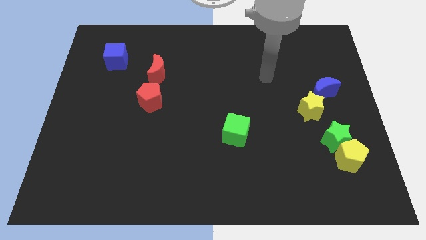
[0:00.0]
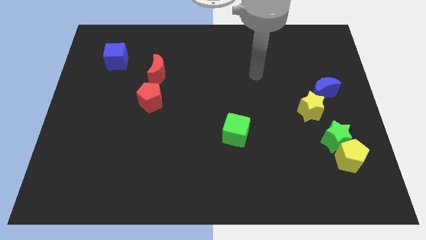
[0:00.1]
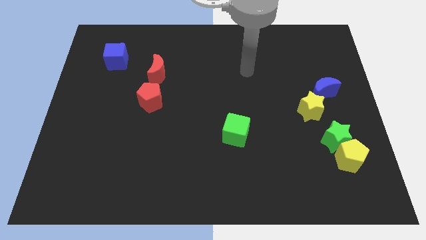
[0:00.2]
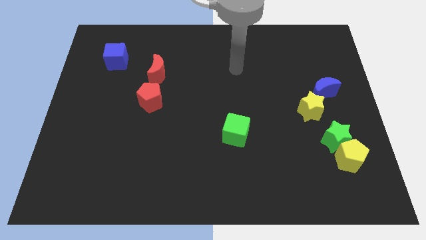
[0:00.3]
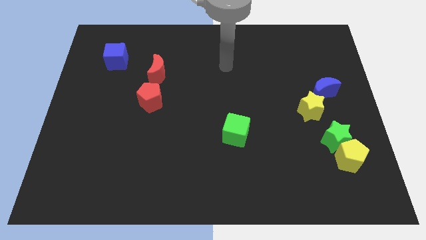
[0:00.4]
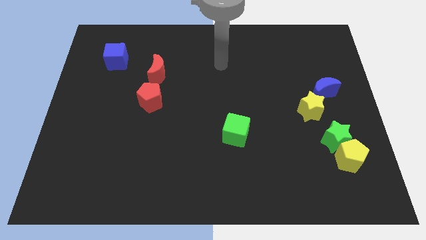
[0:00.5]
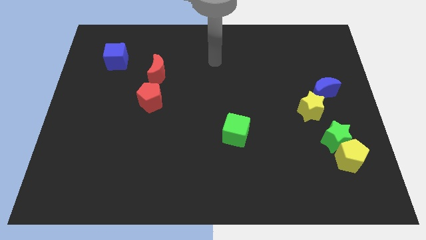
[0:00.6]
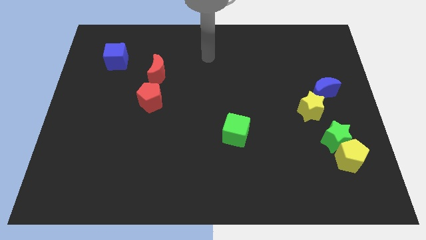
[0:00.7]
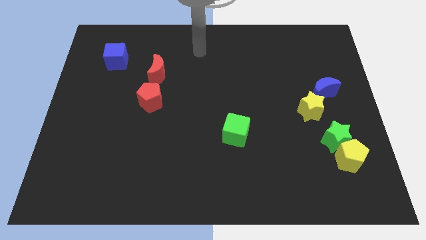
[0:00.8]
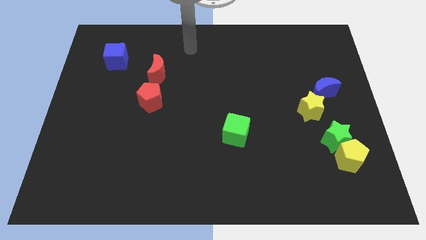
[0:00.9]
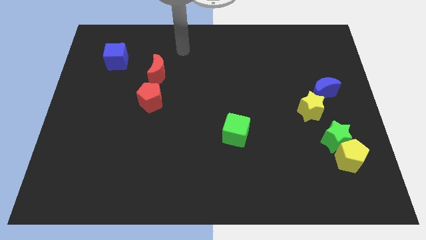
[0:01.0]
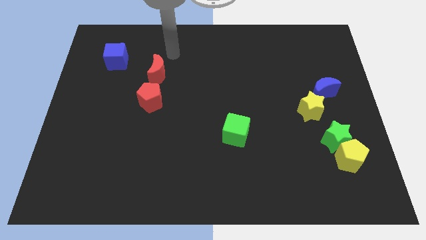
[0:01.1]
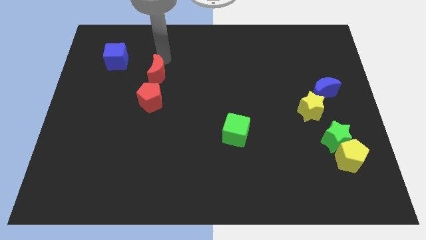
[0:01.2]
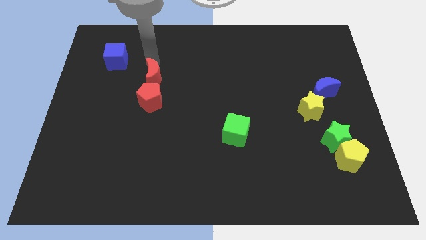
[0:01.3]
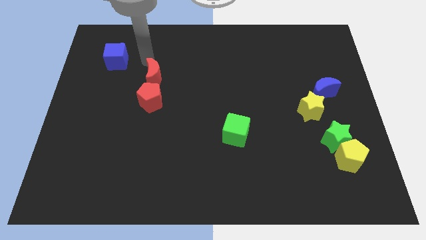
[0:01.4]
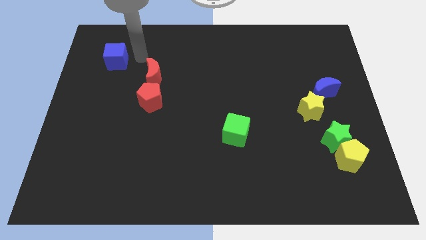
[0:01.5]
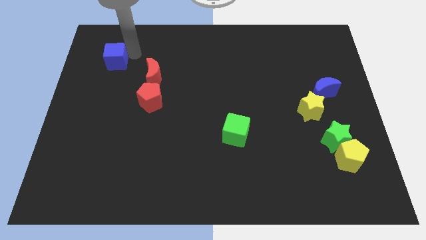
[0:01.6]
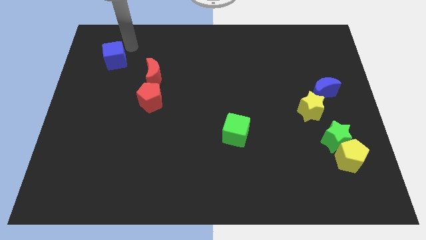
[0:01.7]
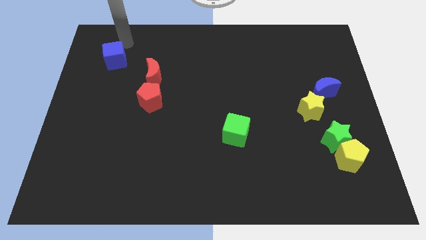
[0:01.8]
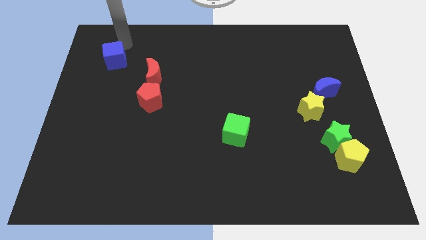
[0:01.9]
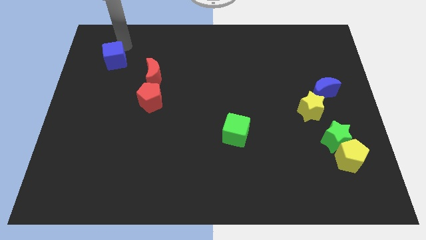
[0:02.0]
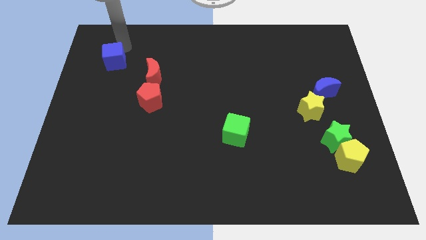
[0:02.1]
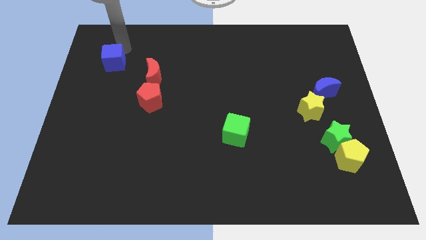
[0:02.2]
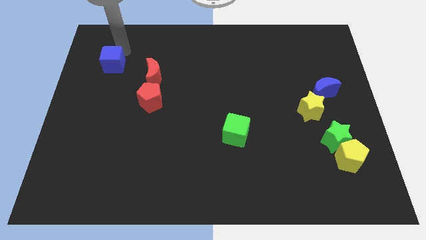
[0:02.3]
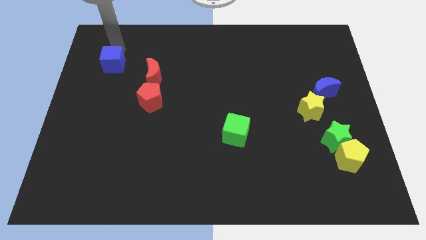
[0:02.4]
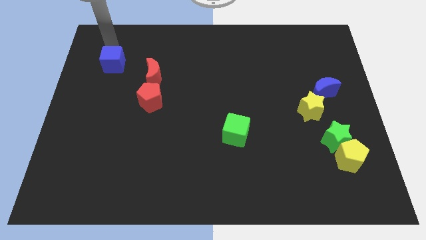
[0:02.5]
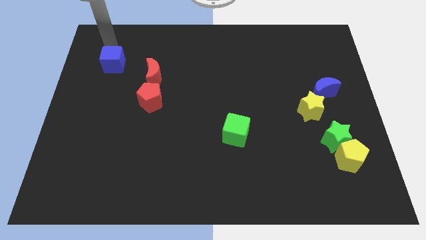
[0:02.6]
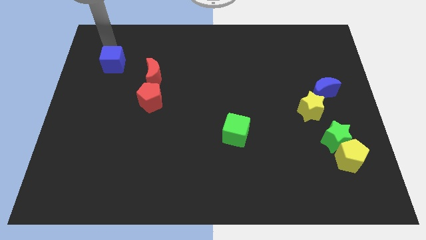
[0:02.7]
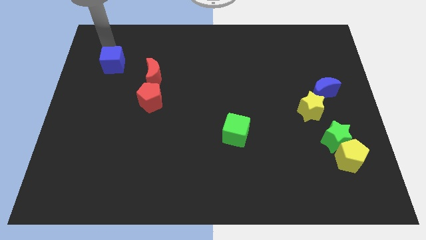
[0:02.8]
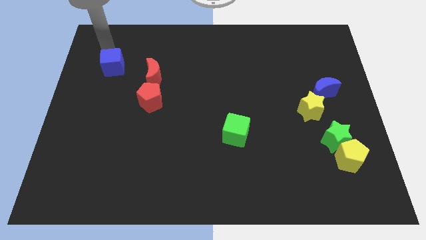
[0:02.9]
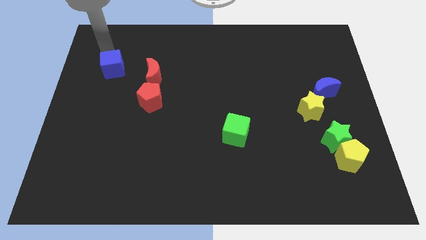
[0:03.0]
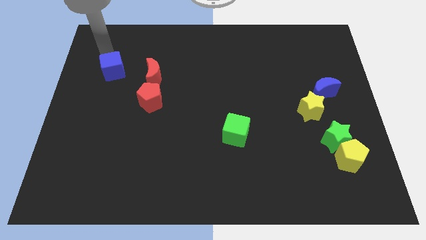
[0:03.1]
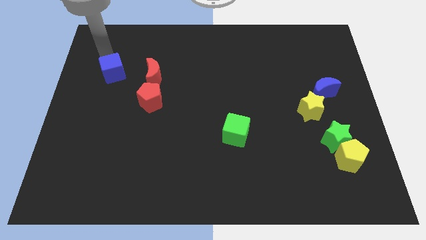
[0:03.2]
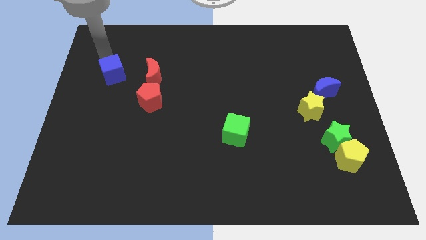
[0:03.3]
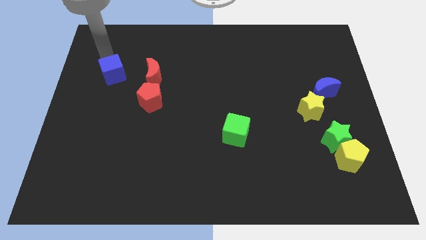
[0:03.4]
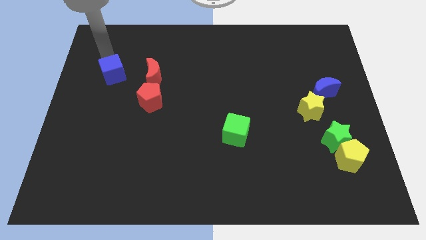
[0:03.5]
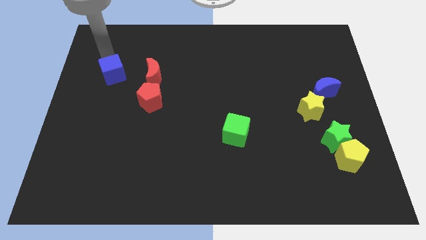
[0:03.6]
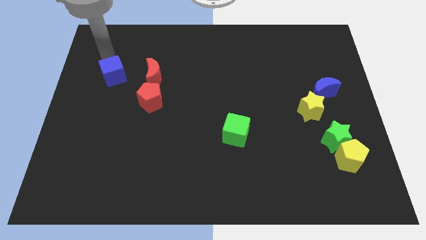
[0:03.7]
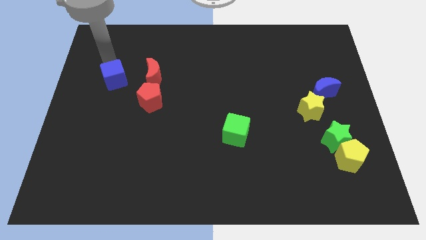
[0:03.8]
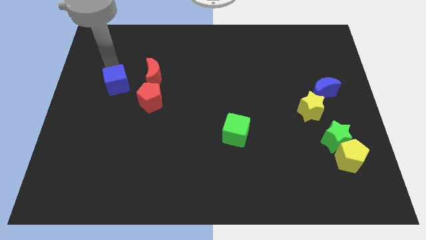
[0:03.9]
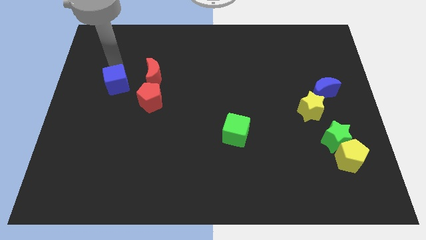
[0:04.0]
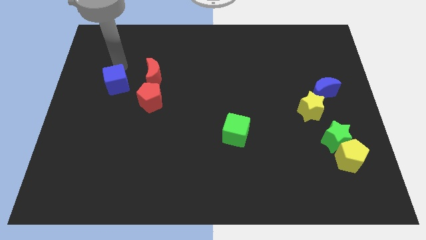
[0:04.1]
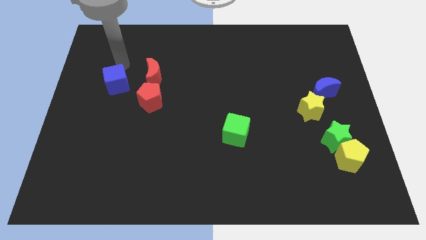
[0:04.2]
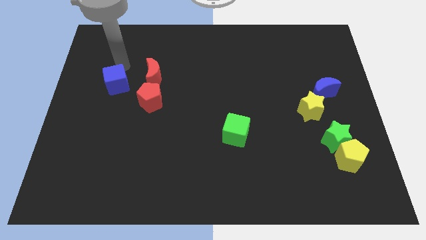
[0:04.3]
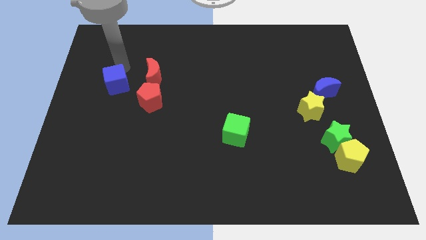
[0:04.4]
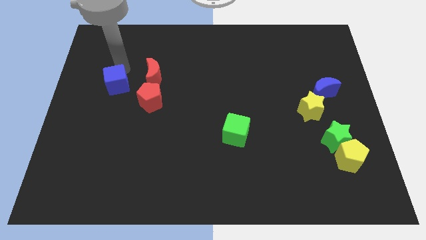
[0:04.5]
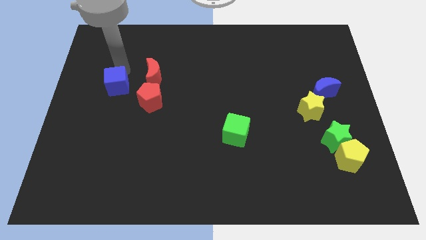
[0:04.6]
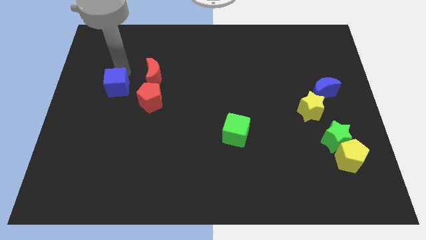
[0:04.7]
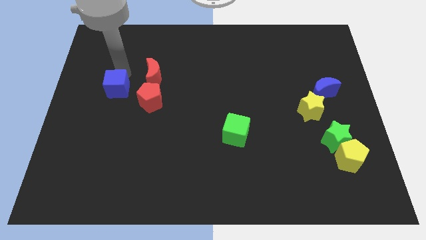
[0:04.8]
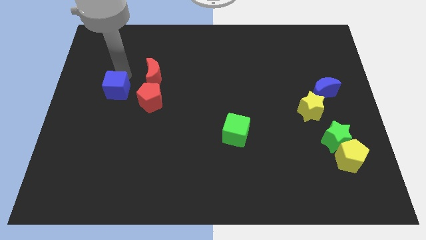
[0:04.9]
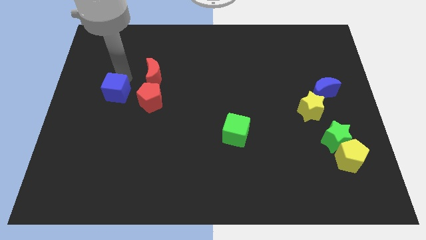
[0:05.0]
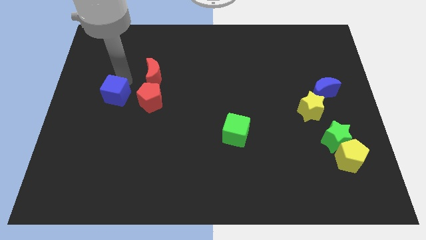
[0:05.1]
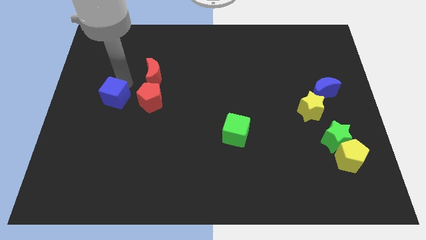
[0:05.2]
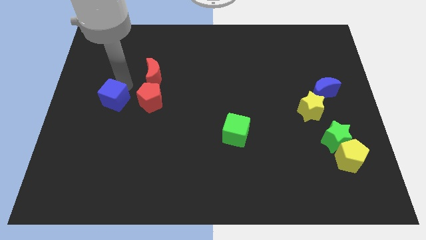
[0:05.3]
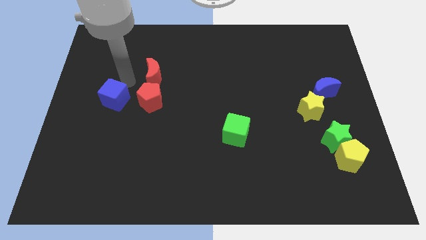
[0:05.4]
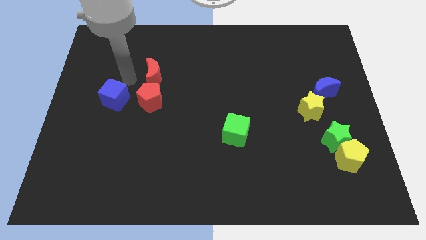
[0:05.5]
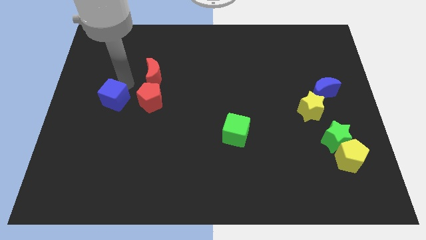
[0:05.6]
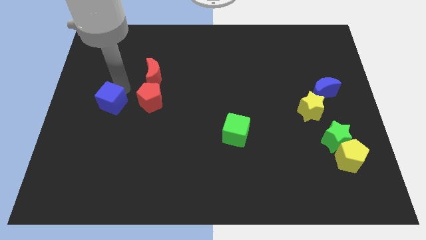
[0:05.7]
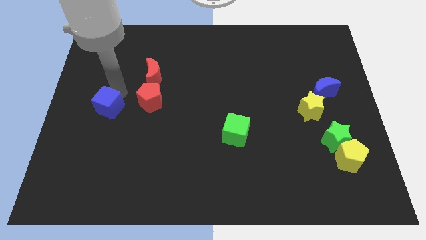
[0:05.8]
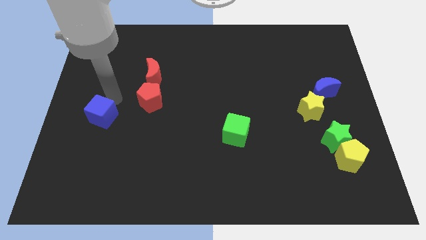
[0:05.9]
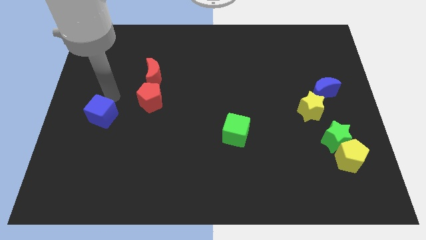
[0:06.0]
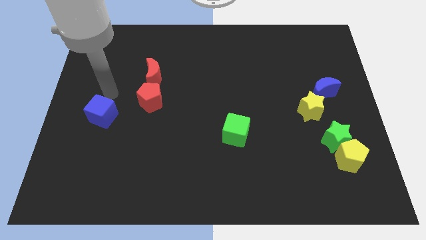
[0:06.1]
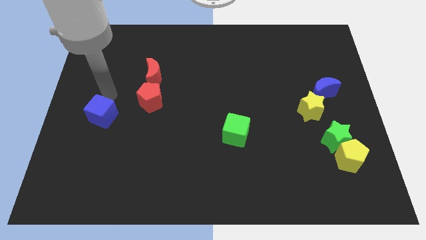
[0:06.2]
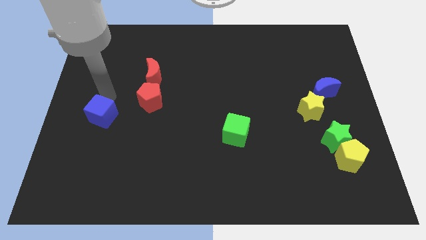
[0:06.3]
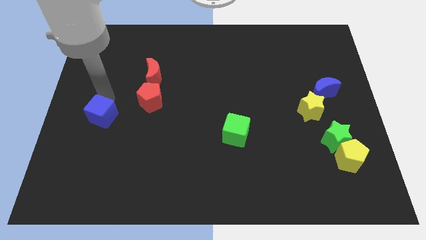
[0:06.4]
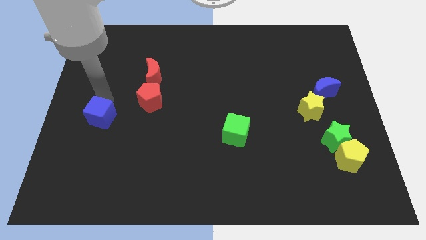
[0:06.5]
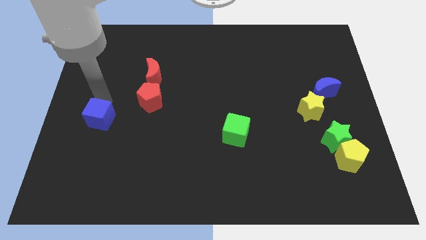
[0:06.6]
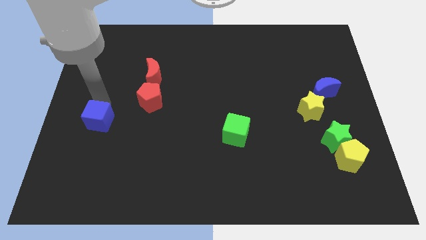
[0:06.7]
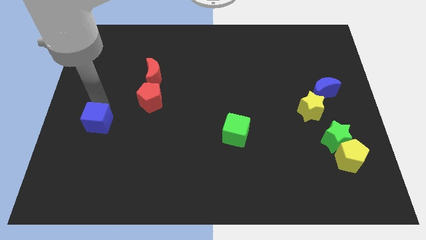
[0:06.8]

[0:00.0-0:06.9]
move the blue cube downwards

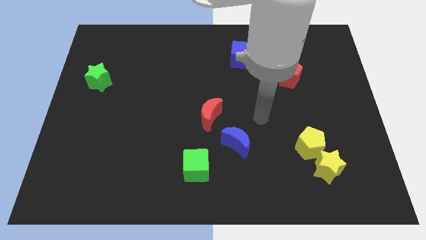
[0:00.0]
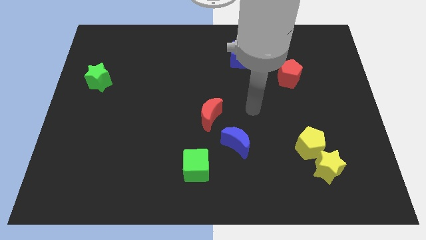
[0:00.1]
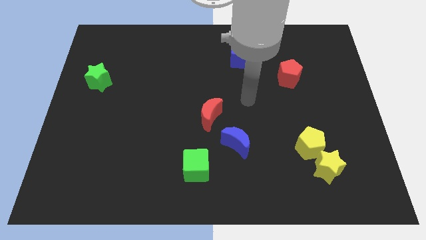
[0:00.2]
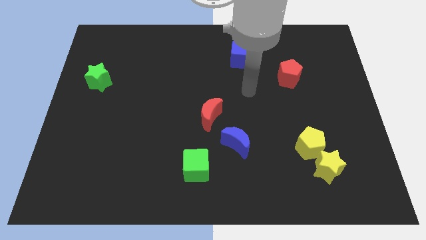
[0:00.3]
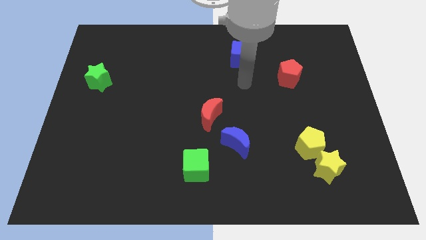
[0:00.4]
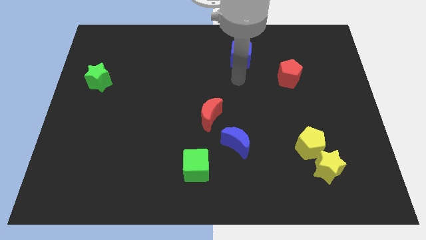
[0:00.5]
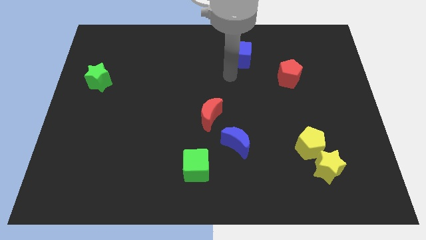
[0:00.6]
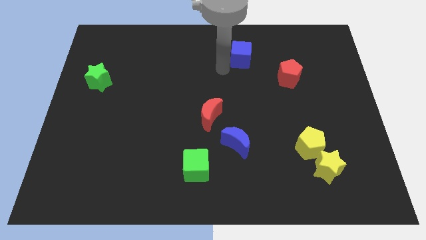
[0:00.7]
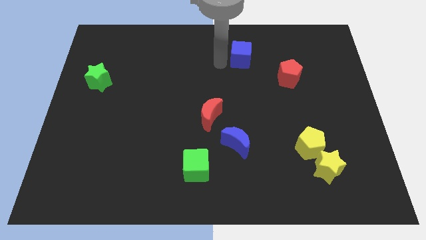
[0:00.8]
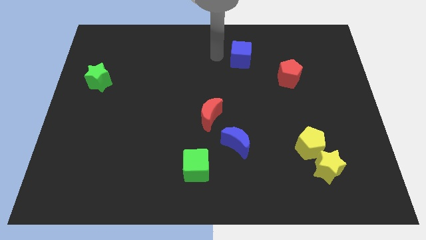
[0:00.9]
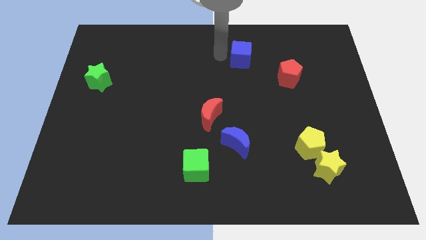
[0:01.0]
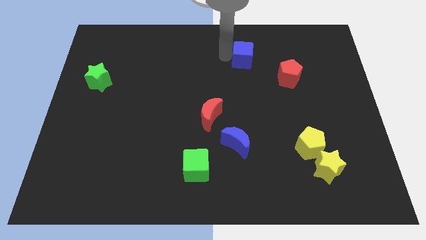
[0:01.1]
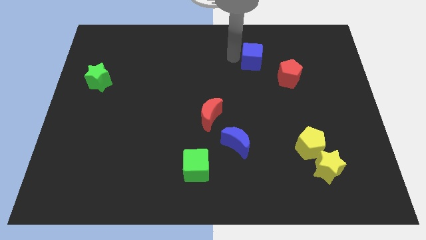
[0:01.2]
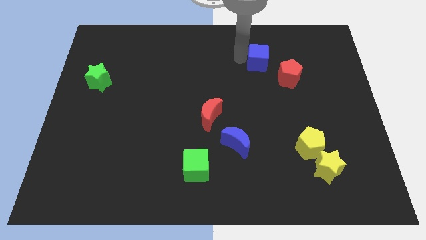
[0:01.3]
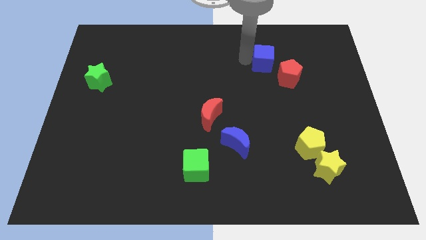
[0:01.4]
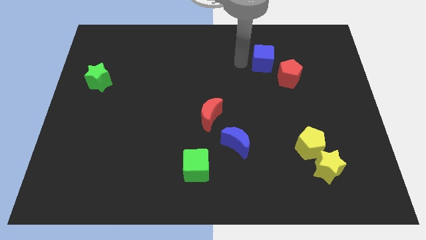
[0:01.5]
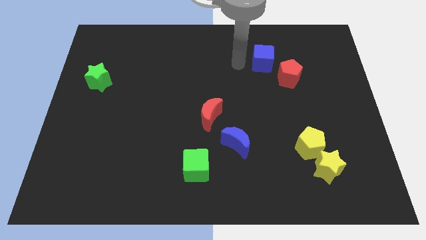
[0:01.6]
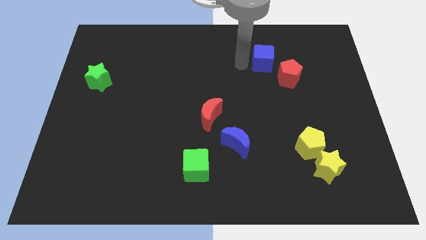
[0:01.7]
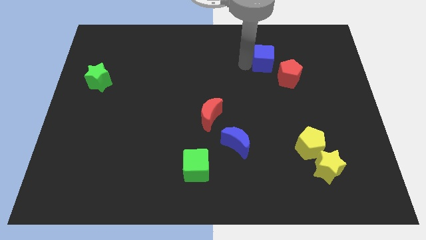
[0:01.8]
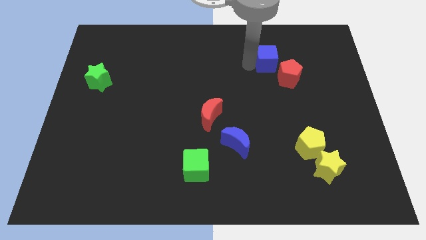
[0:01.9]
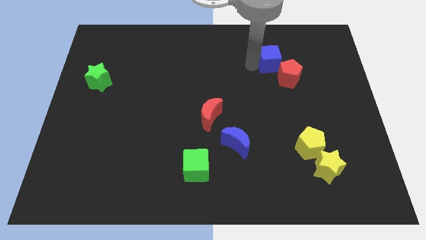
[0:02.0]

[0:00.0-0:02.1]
slide the blue cube to the right slightly
